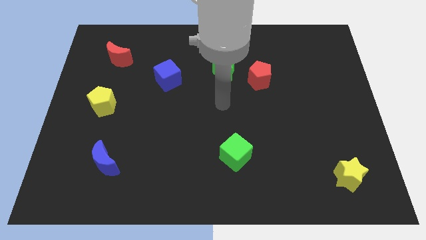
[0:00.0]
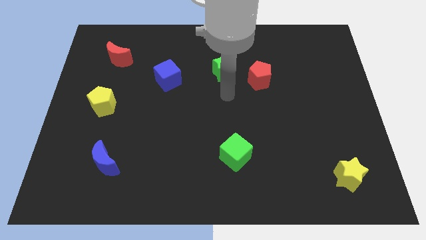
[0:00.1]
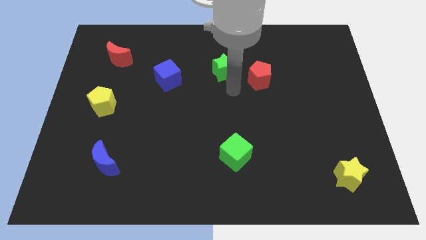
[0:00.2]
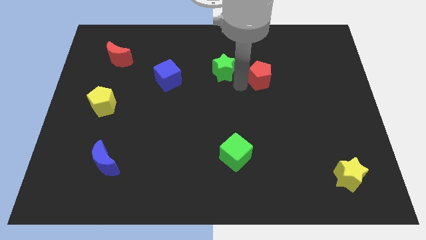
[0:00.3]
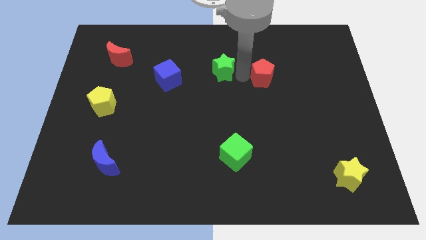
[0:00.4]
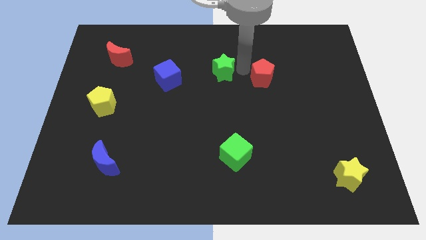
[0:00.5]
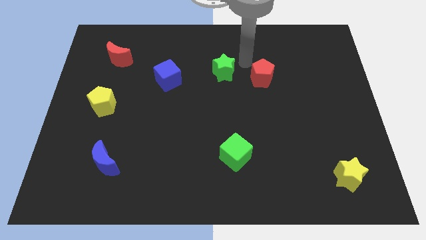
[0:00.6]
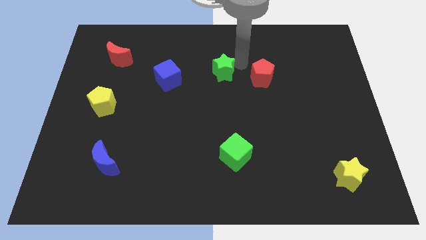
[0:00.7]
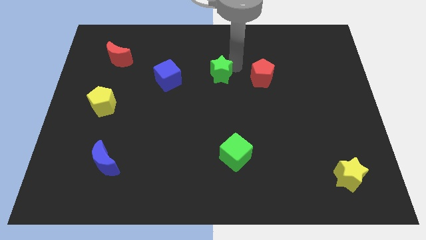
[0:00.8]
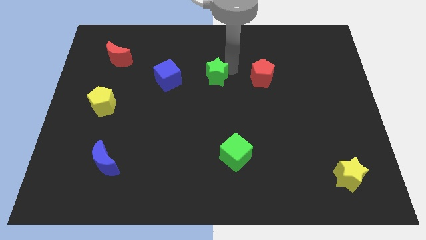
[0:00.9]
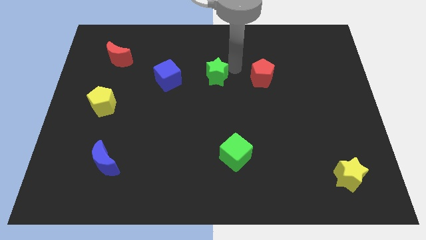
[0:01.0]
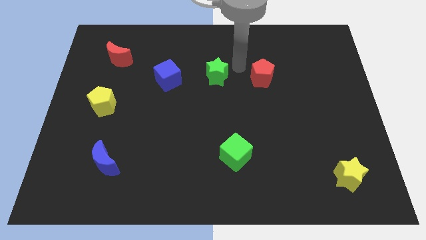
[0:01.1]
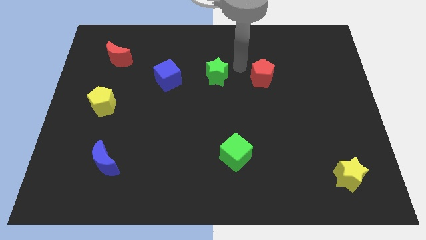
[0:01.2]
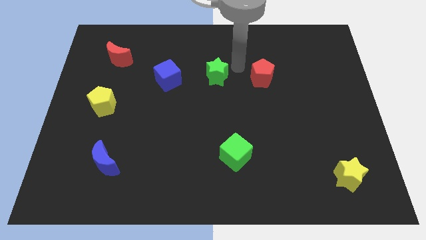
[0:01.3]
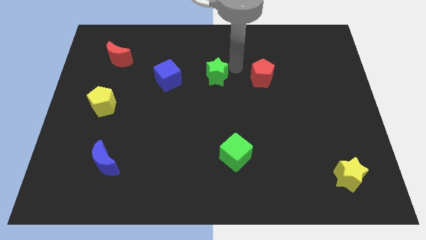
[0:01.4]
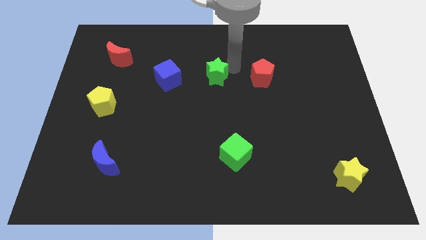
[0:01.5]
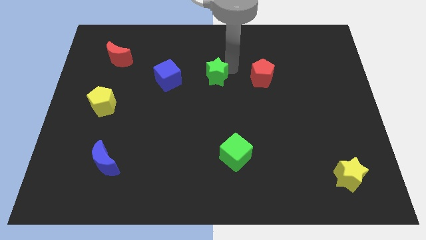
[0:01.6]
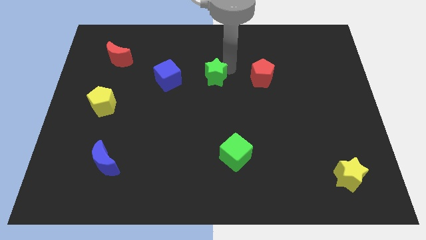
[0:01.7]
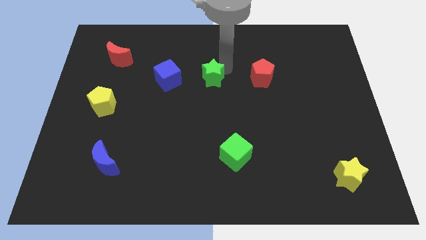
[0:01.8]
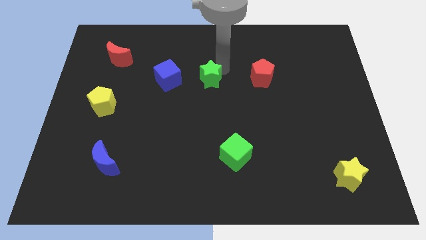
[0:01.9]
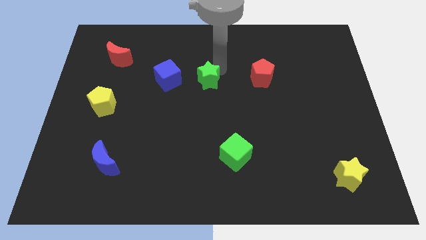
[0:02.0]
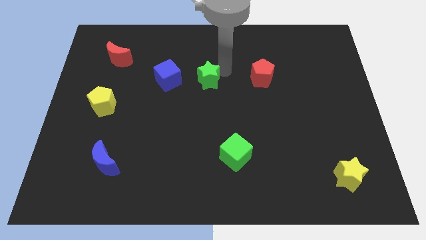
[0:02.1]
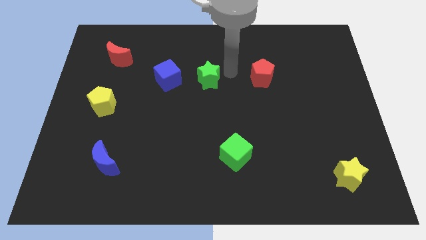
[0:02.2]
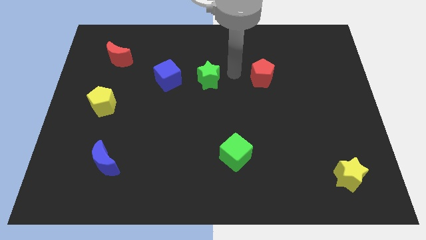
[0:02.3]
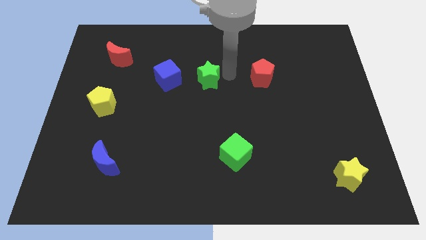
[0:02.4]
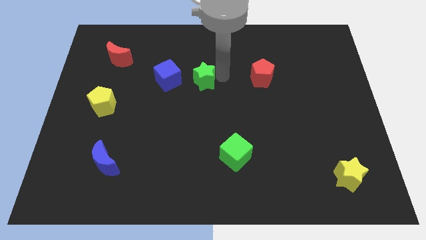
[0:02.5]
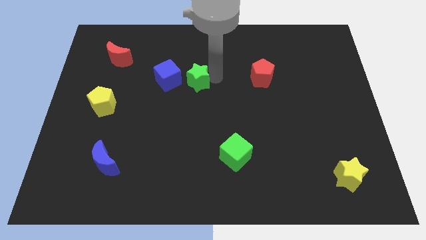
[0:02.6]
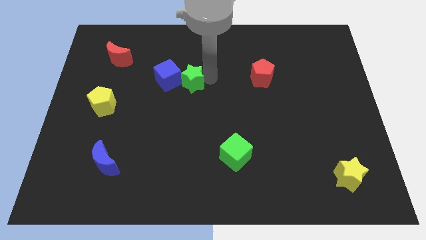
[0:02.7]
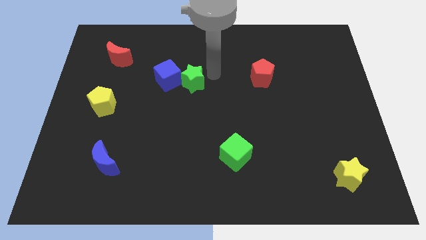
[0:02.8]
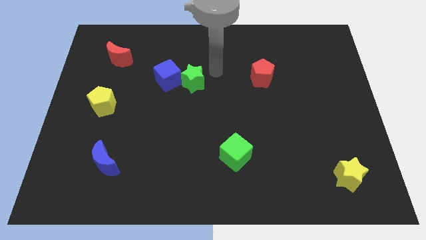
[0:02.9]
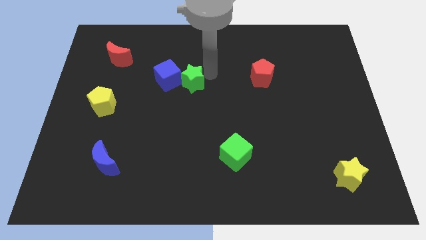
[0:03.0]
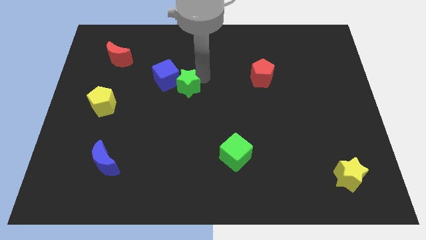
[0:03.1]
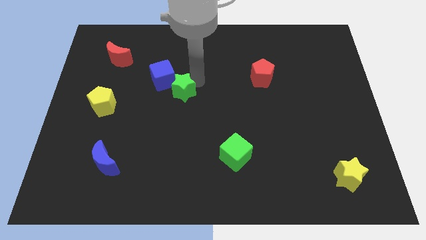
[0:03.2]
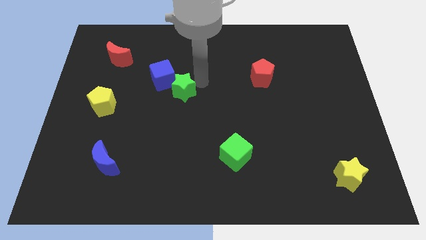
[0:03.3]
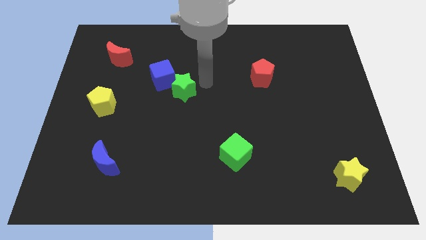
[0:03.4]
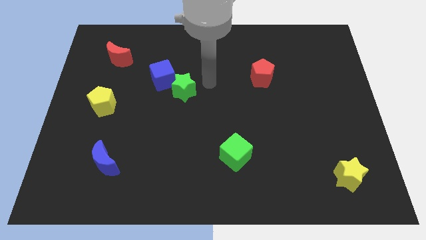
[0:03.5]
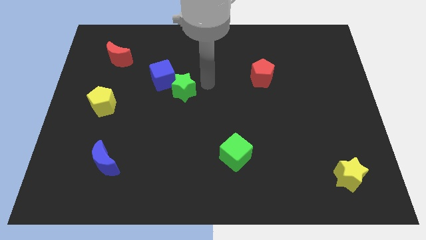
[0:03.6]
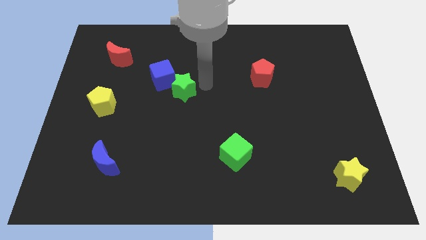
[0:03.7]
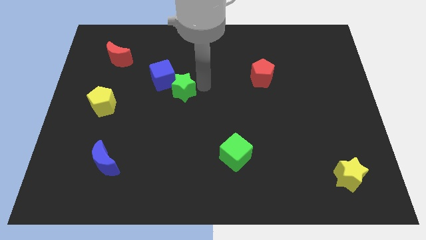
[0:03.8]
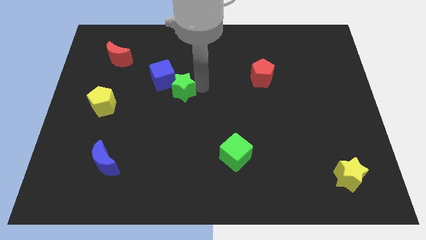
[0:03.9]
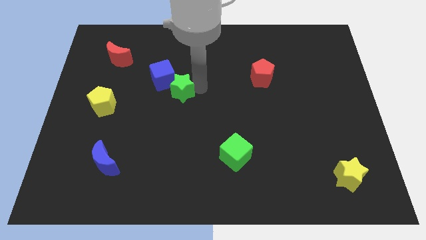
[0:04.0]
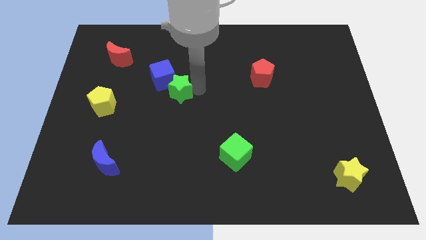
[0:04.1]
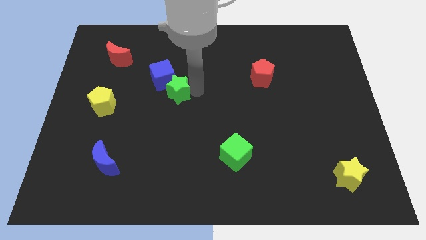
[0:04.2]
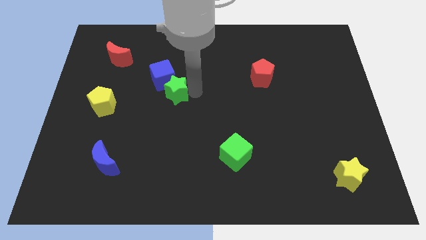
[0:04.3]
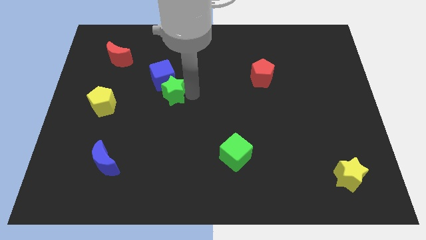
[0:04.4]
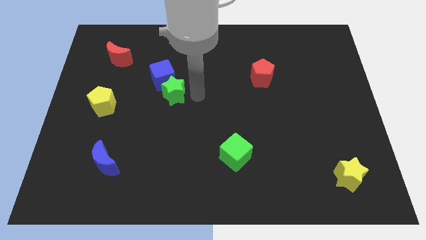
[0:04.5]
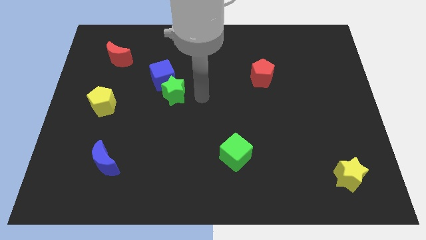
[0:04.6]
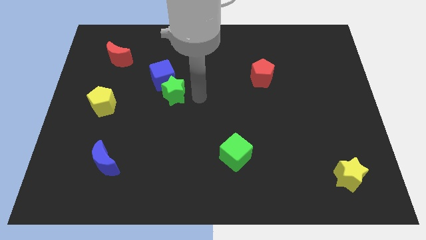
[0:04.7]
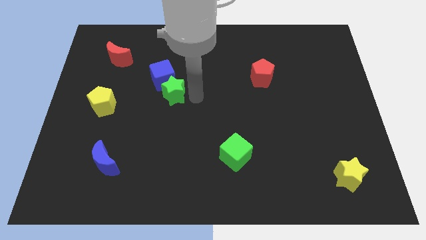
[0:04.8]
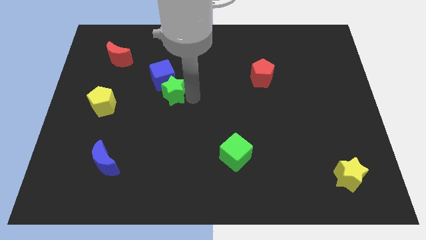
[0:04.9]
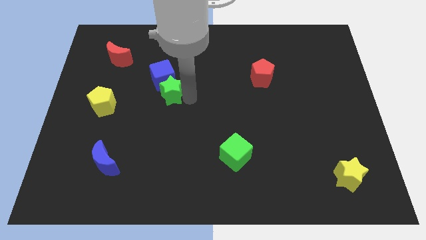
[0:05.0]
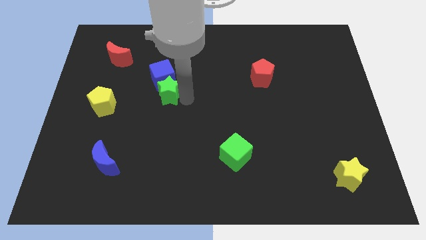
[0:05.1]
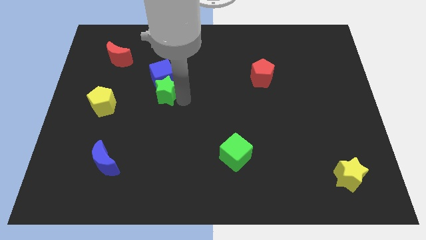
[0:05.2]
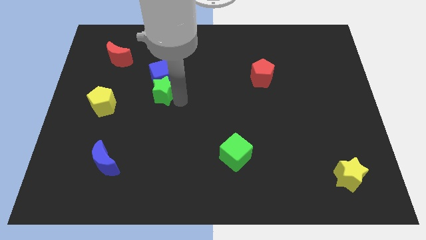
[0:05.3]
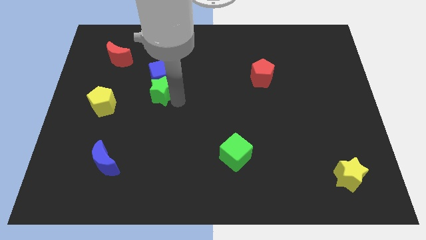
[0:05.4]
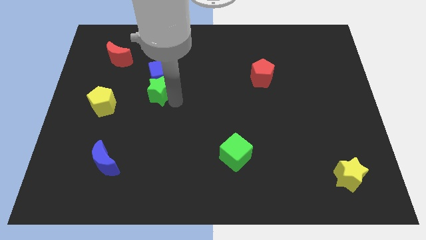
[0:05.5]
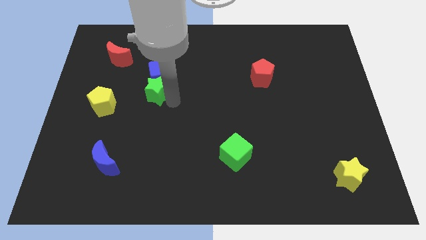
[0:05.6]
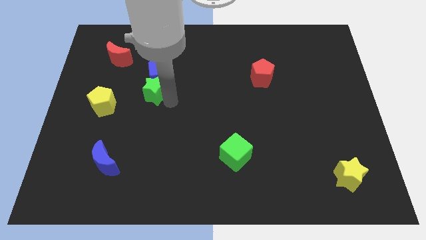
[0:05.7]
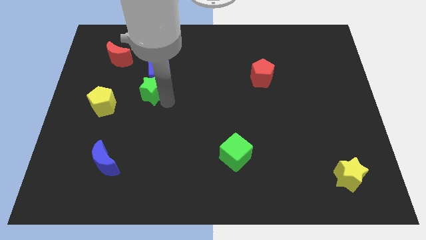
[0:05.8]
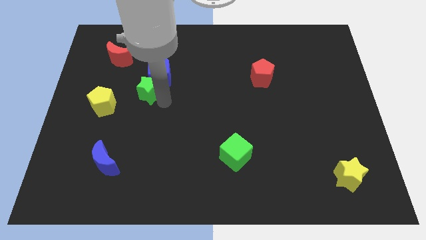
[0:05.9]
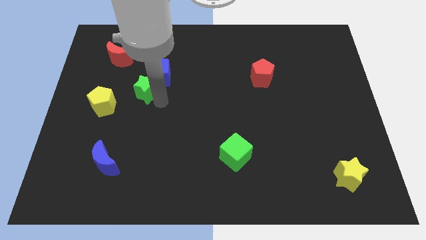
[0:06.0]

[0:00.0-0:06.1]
slide the green star to the top right side of the yellow pentagon

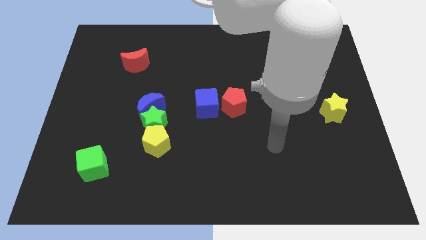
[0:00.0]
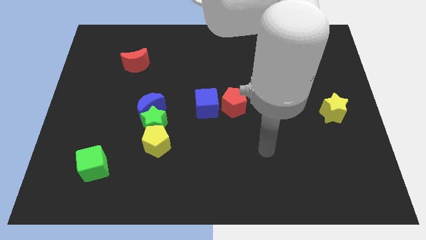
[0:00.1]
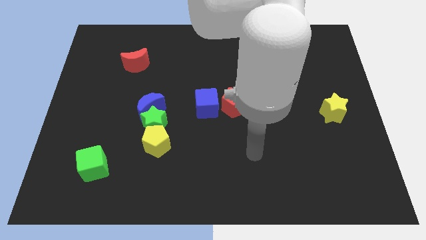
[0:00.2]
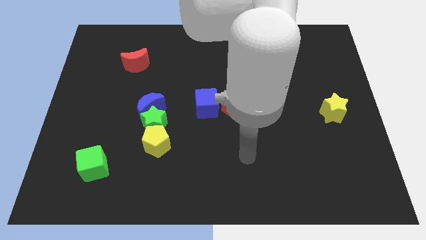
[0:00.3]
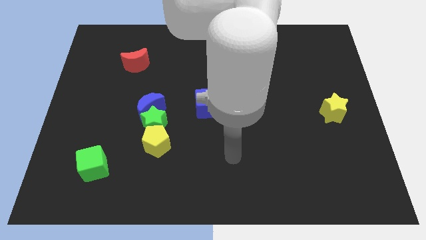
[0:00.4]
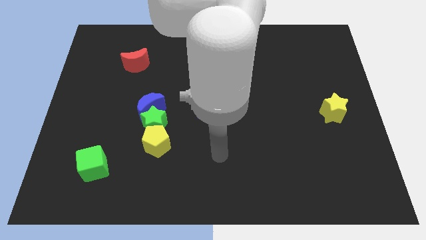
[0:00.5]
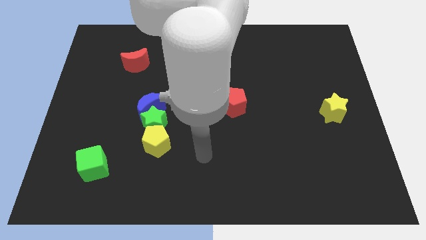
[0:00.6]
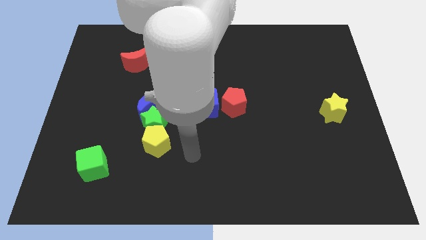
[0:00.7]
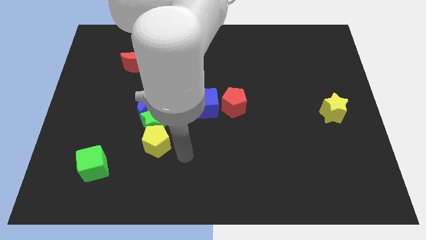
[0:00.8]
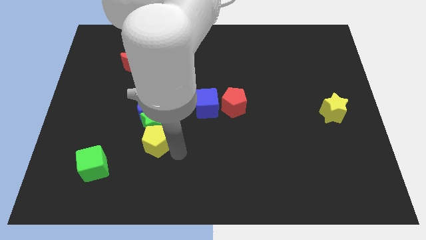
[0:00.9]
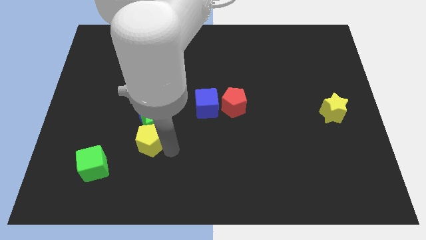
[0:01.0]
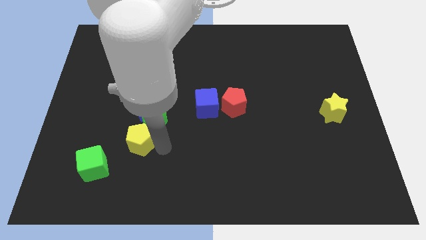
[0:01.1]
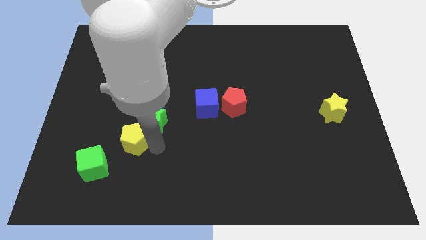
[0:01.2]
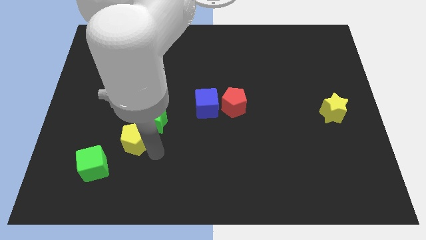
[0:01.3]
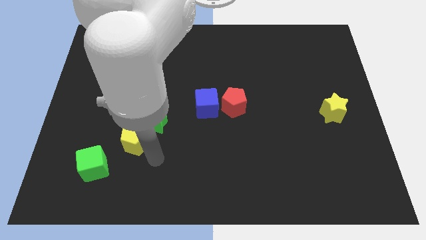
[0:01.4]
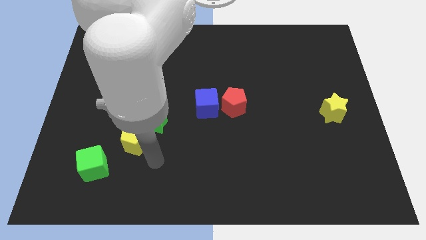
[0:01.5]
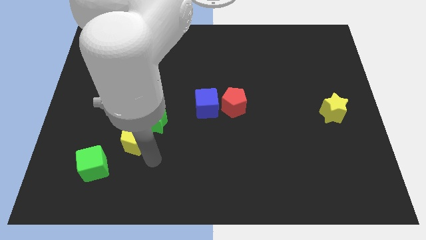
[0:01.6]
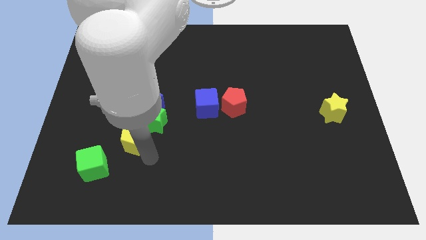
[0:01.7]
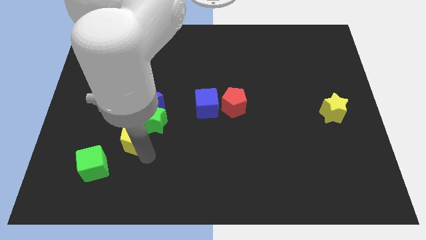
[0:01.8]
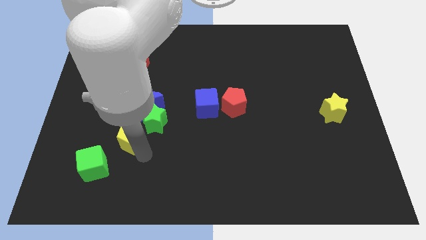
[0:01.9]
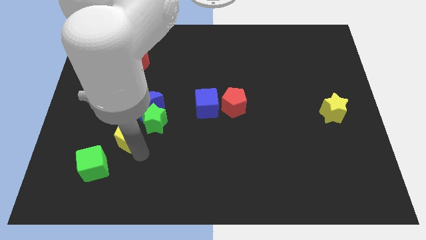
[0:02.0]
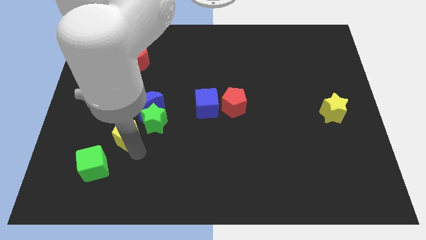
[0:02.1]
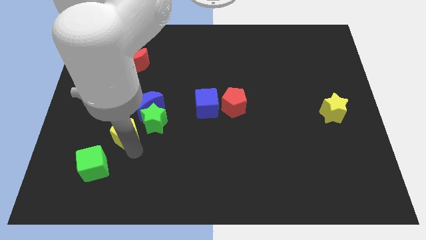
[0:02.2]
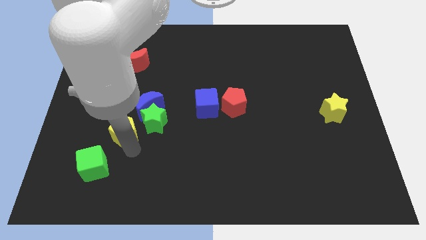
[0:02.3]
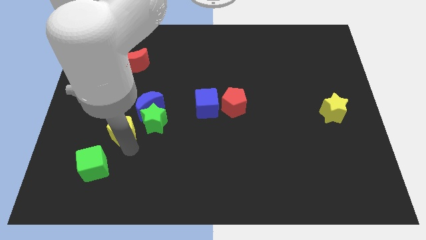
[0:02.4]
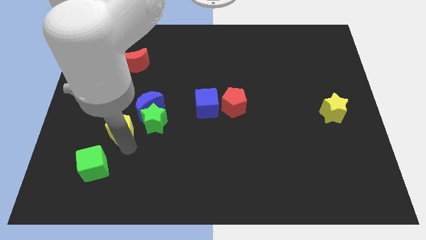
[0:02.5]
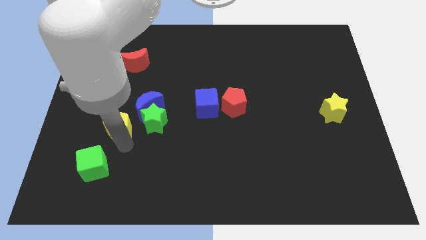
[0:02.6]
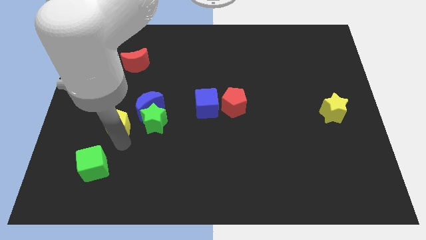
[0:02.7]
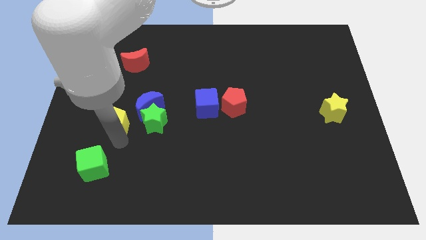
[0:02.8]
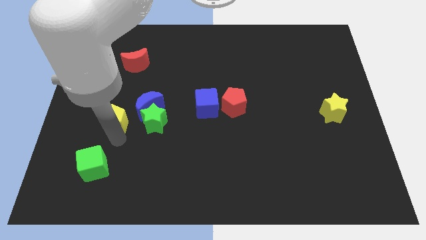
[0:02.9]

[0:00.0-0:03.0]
move the yellow pentagon to the left side of the blue moon
